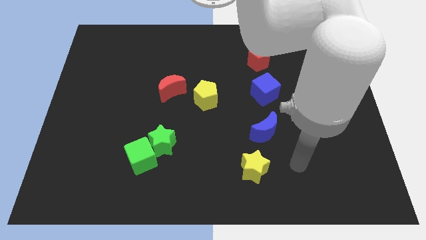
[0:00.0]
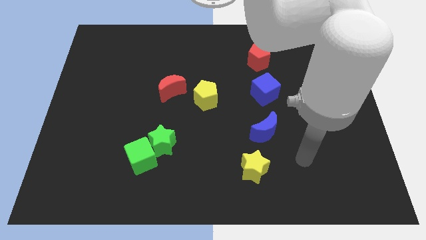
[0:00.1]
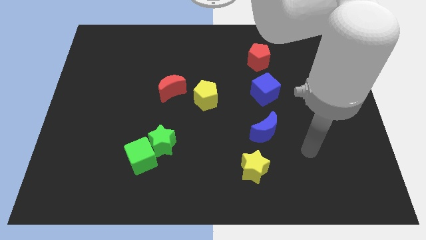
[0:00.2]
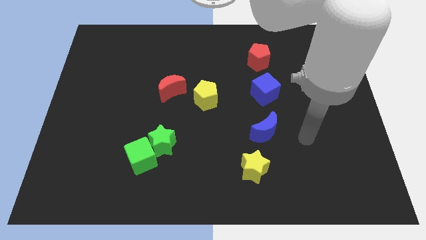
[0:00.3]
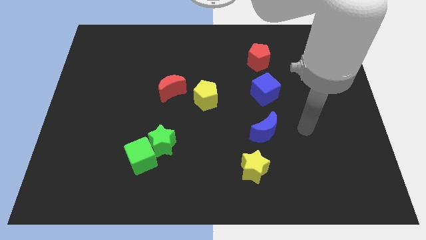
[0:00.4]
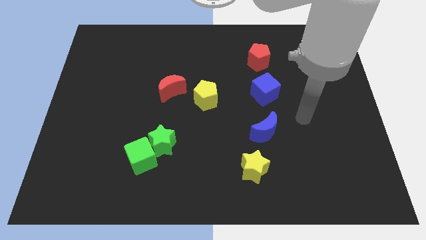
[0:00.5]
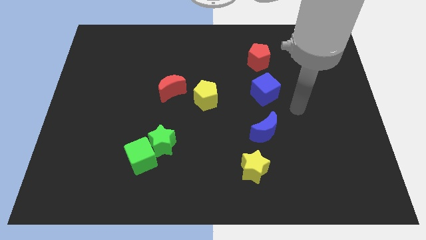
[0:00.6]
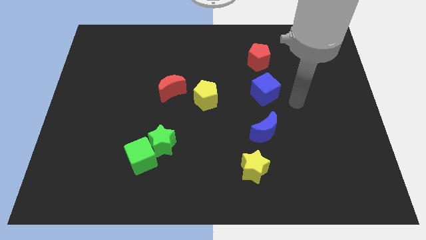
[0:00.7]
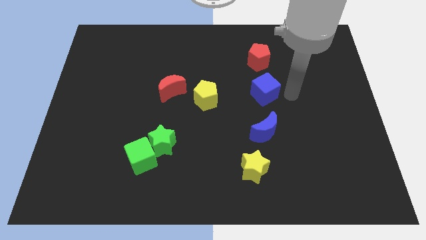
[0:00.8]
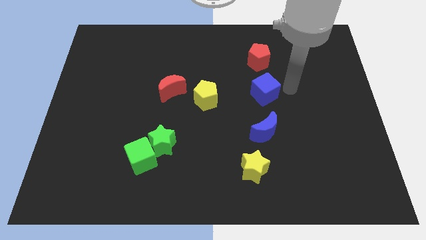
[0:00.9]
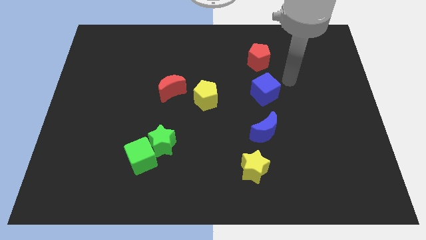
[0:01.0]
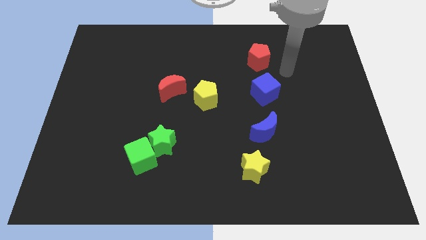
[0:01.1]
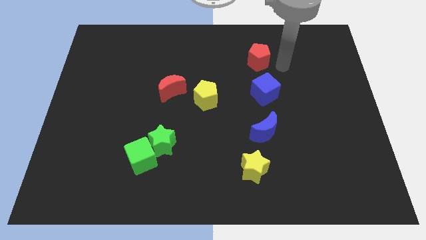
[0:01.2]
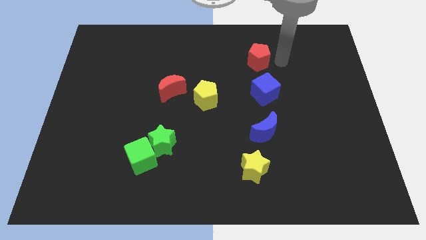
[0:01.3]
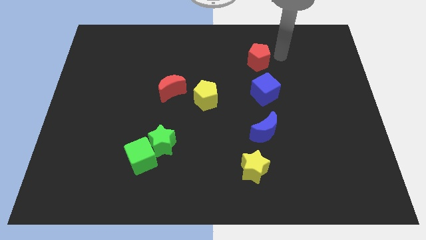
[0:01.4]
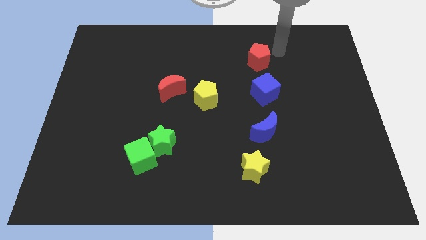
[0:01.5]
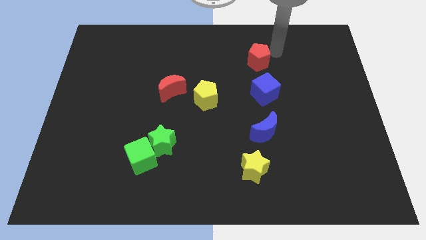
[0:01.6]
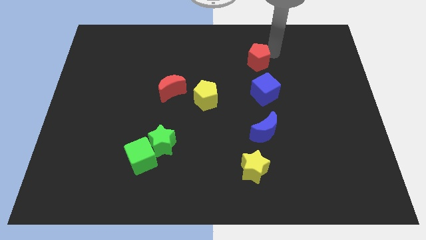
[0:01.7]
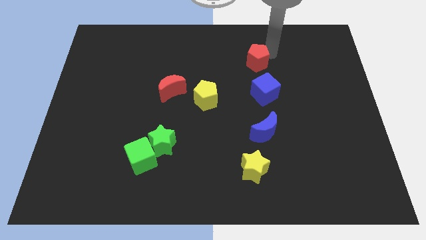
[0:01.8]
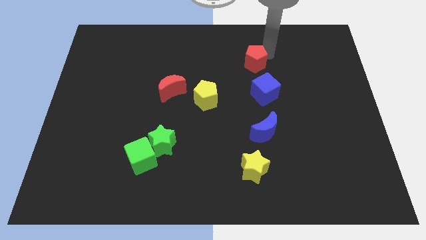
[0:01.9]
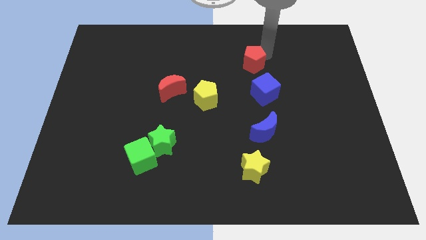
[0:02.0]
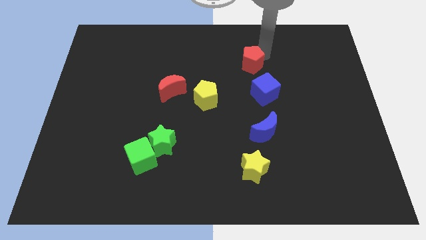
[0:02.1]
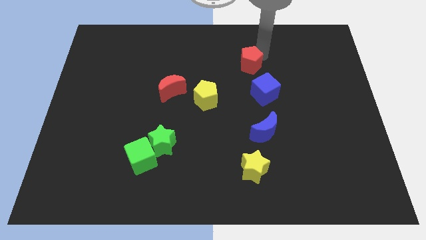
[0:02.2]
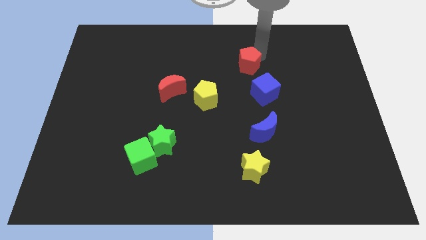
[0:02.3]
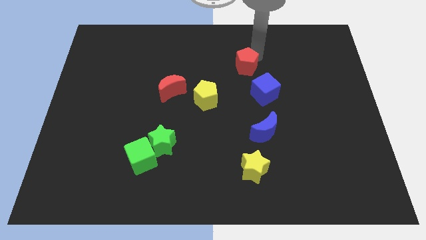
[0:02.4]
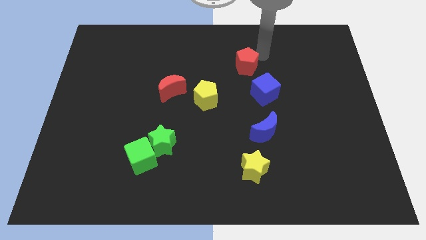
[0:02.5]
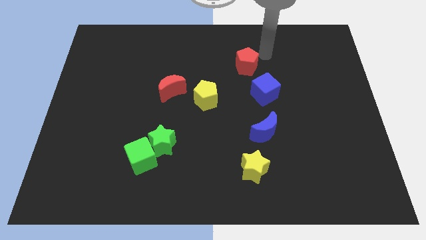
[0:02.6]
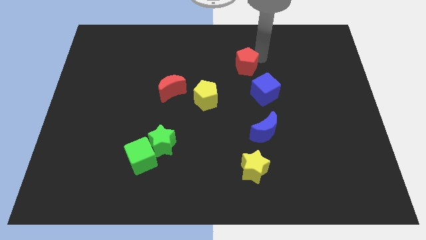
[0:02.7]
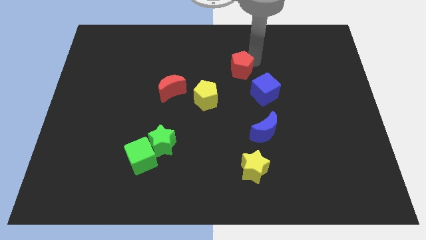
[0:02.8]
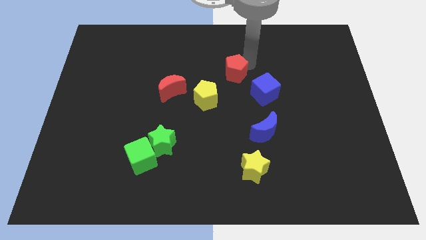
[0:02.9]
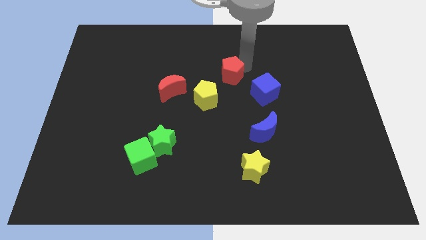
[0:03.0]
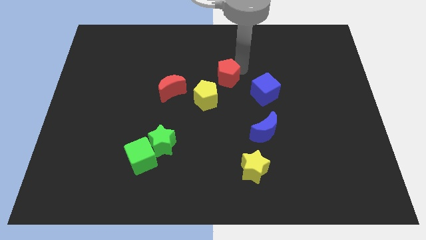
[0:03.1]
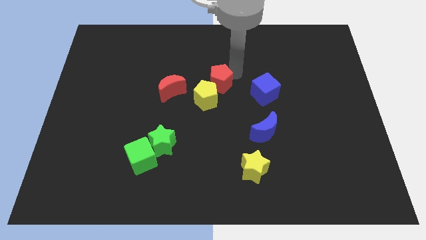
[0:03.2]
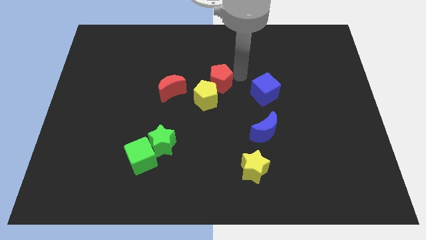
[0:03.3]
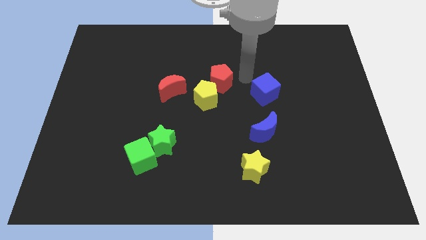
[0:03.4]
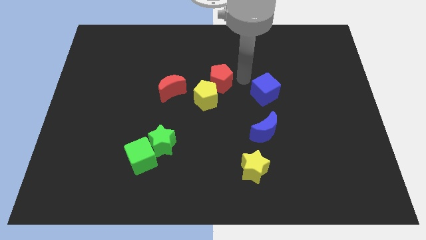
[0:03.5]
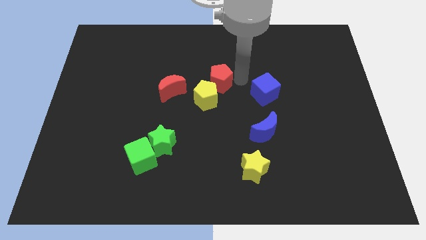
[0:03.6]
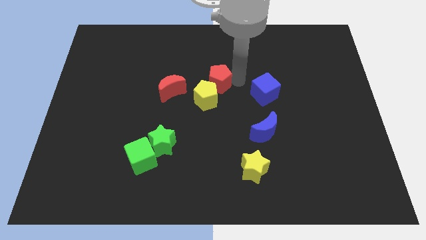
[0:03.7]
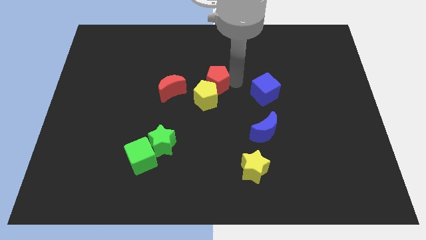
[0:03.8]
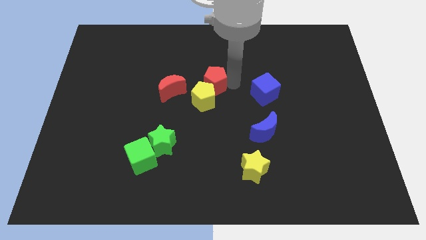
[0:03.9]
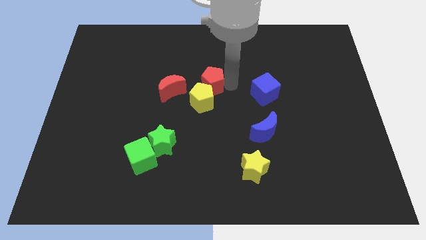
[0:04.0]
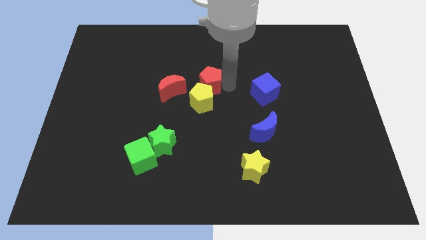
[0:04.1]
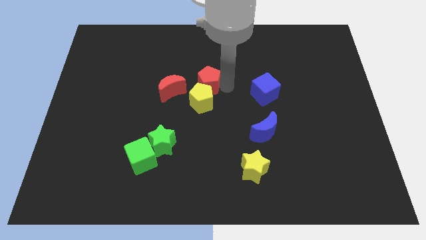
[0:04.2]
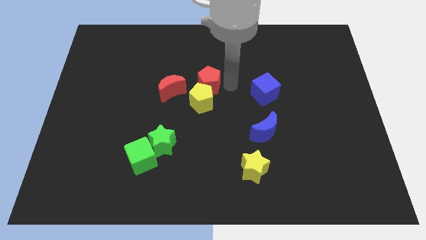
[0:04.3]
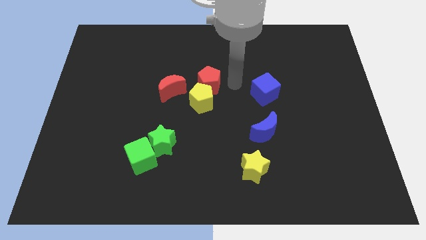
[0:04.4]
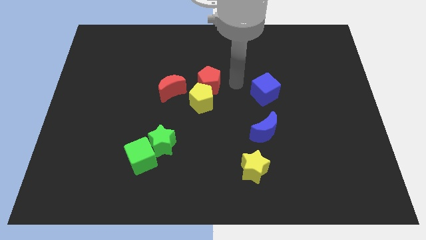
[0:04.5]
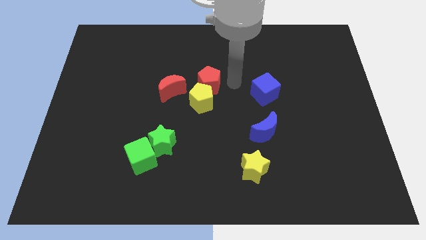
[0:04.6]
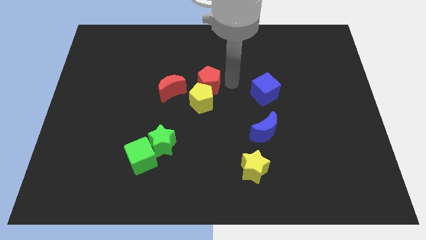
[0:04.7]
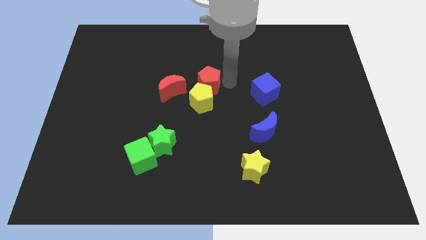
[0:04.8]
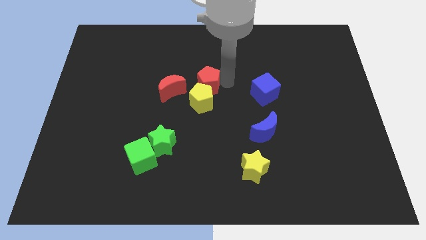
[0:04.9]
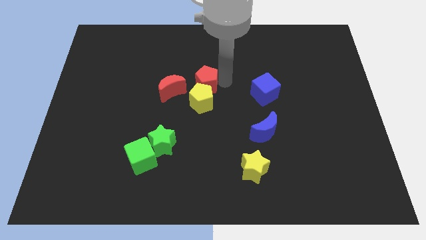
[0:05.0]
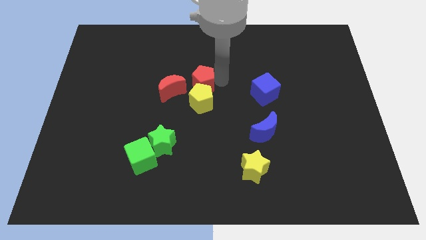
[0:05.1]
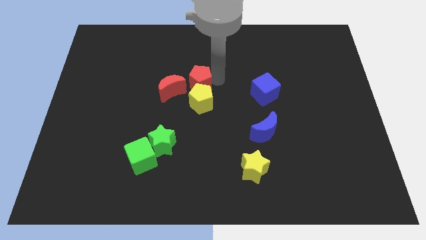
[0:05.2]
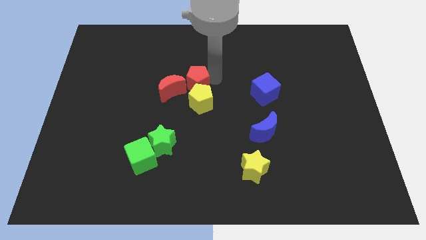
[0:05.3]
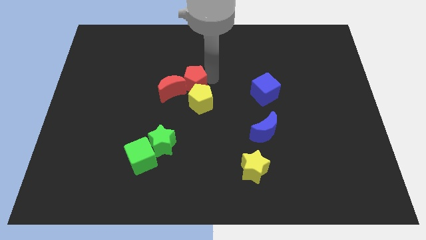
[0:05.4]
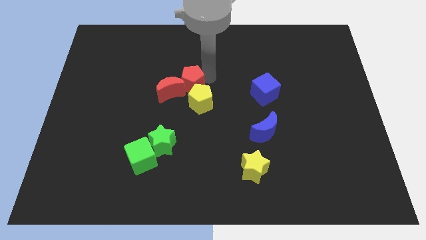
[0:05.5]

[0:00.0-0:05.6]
move the red pentagon next to the red moon

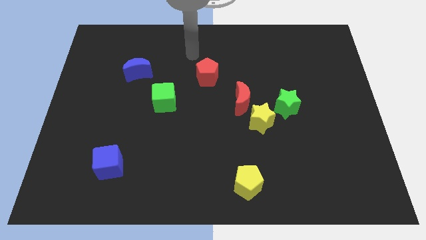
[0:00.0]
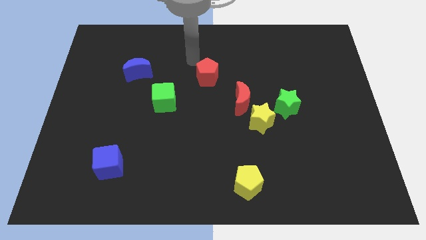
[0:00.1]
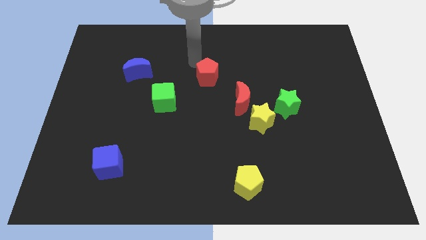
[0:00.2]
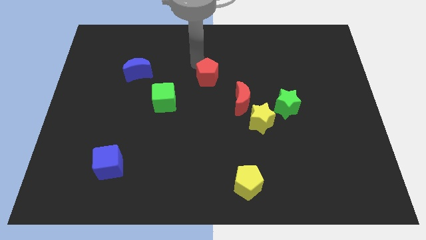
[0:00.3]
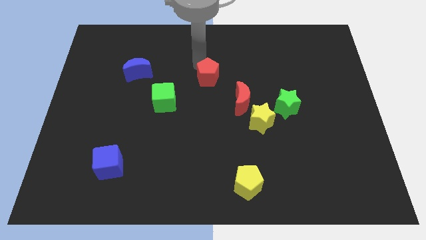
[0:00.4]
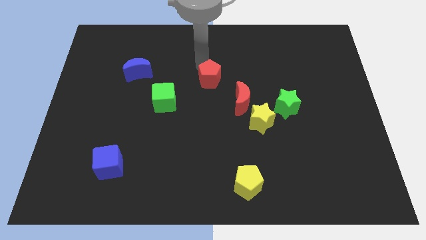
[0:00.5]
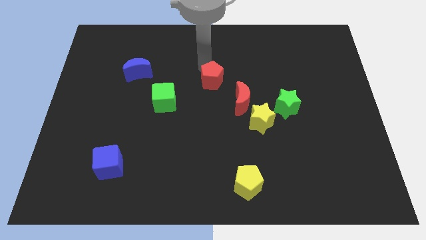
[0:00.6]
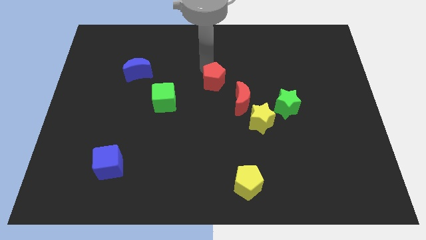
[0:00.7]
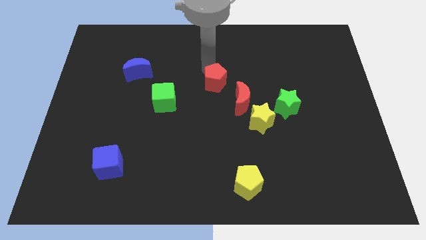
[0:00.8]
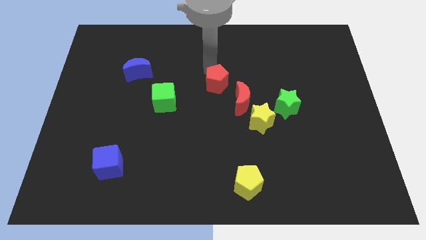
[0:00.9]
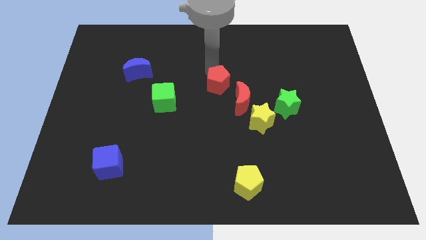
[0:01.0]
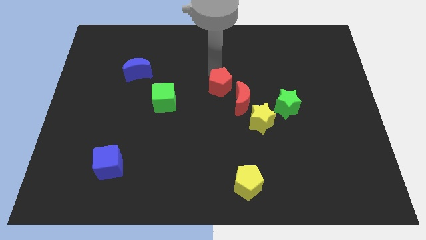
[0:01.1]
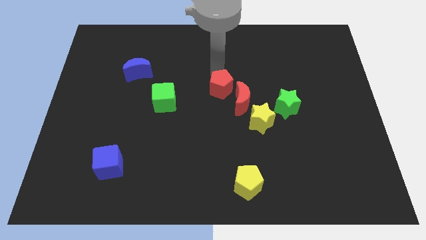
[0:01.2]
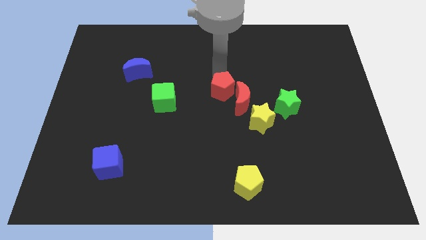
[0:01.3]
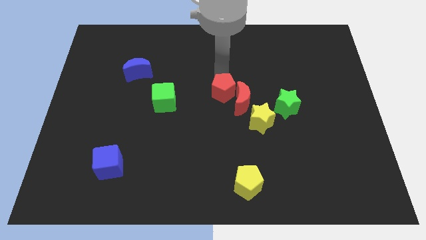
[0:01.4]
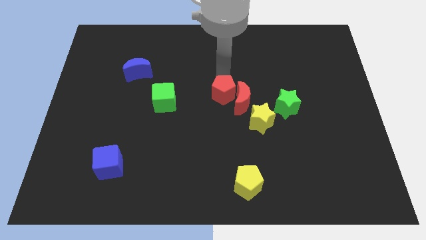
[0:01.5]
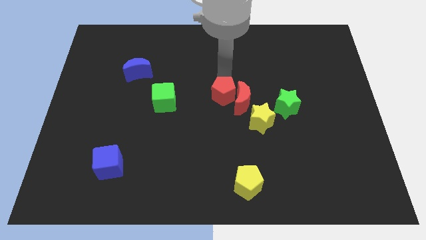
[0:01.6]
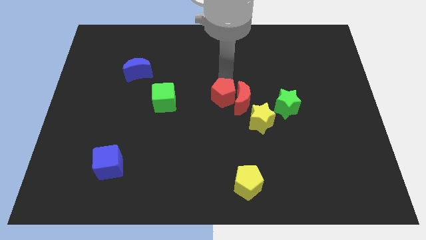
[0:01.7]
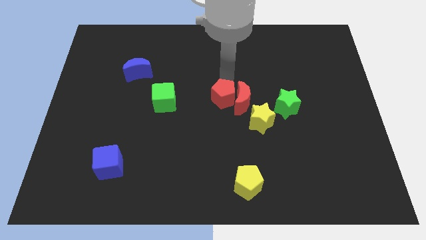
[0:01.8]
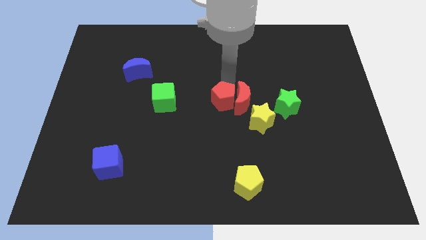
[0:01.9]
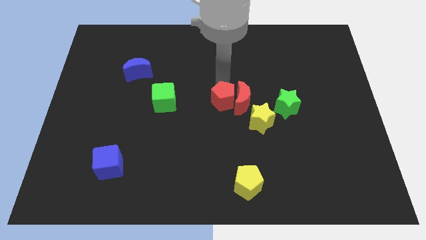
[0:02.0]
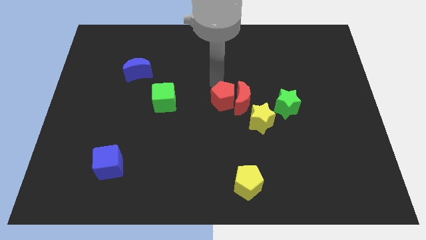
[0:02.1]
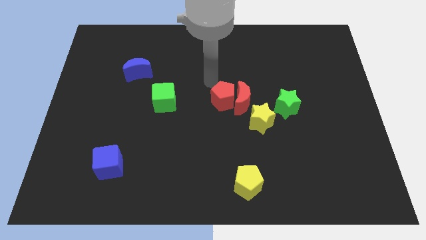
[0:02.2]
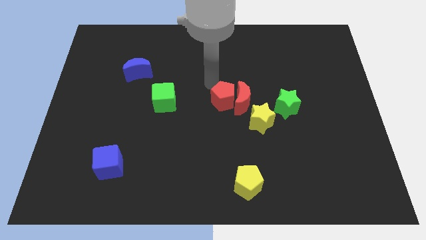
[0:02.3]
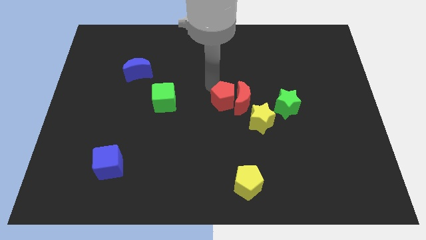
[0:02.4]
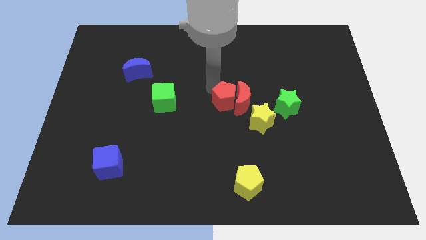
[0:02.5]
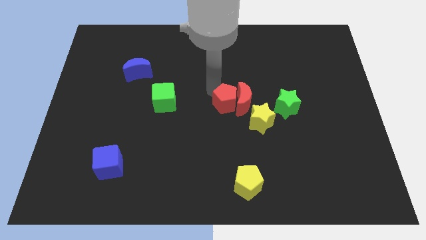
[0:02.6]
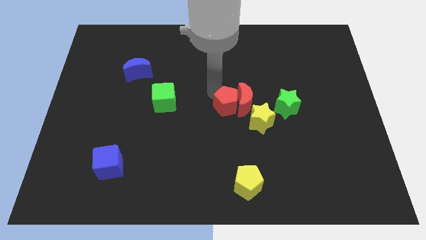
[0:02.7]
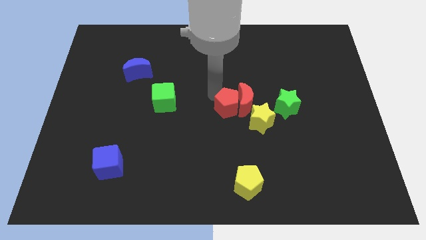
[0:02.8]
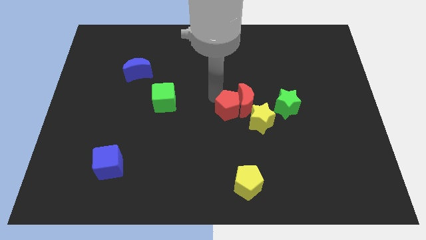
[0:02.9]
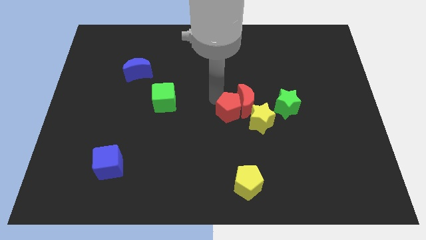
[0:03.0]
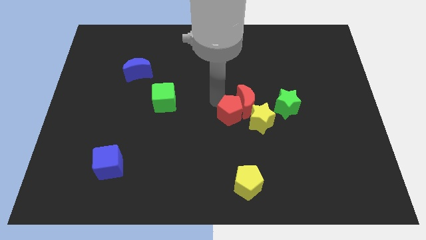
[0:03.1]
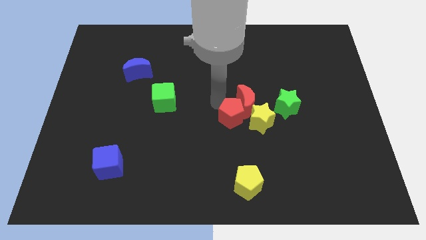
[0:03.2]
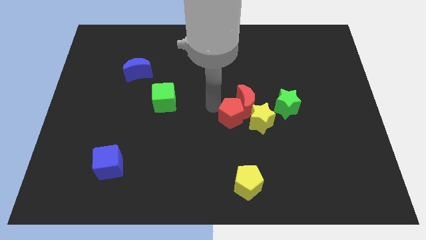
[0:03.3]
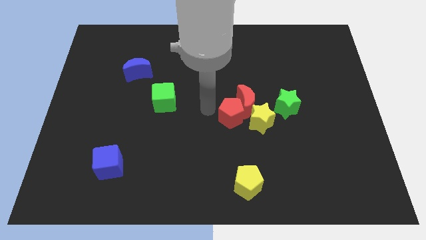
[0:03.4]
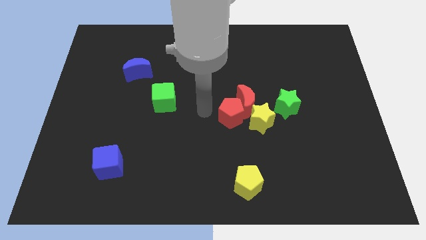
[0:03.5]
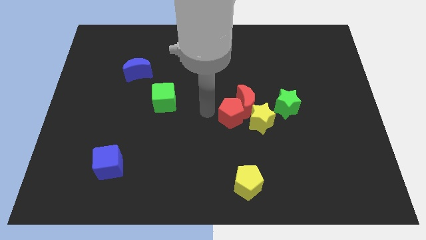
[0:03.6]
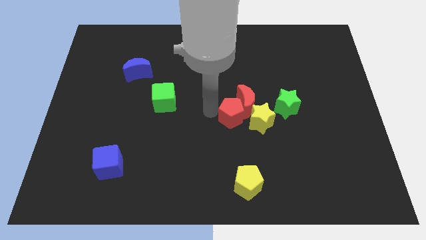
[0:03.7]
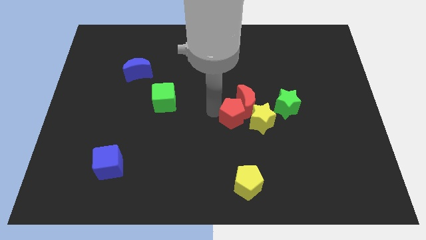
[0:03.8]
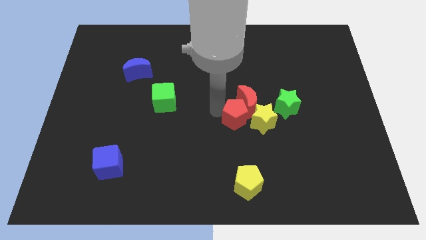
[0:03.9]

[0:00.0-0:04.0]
move the red pentagon next to the yellow star
